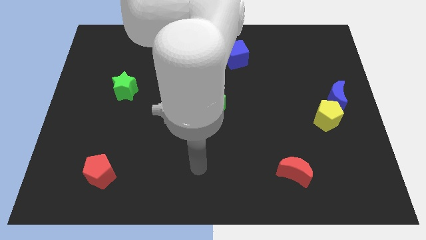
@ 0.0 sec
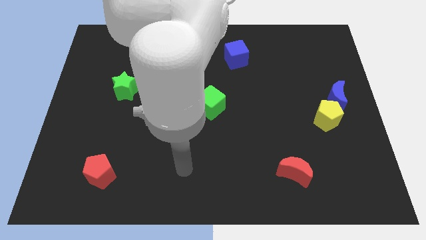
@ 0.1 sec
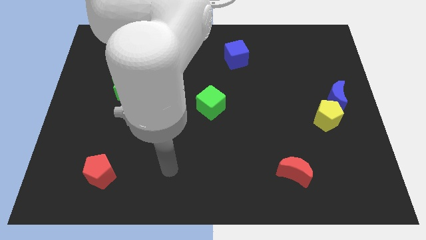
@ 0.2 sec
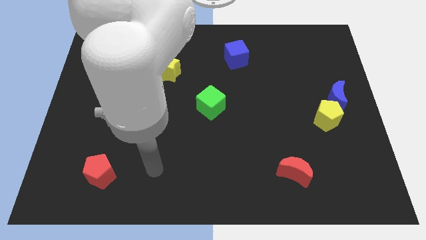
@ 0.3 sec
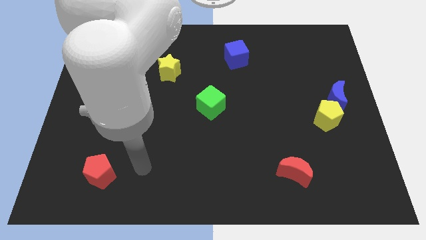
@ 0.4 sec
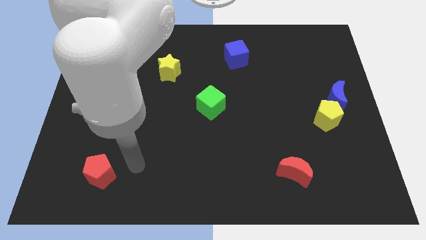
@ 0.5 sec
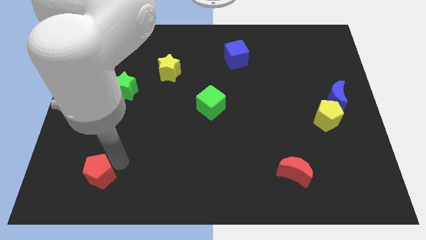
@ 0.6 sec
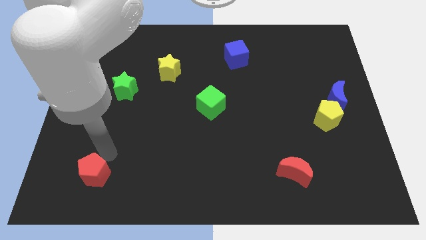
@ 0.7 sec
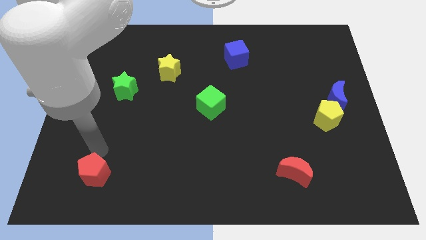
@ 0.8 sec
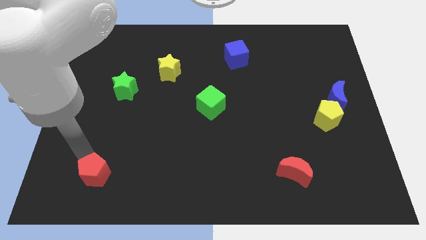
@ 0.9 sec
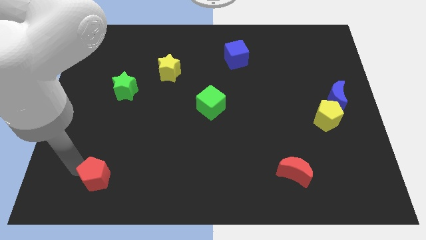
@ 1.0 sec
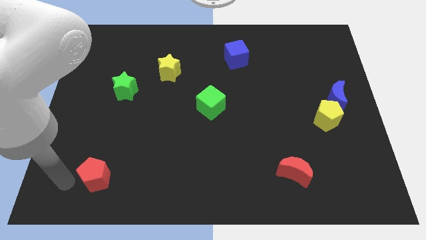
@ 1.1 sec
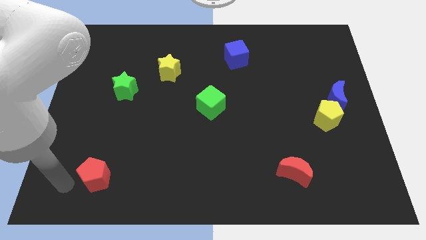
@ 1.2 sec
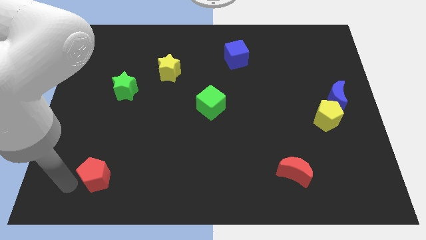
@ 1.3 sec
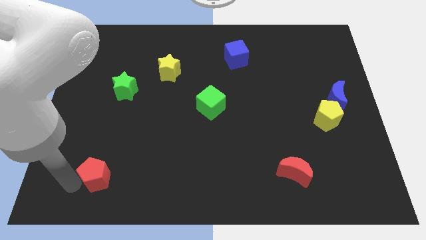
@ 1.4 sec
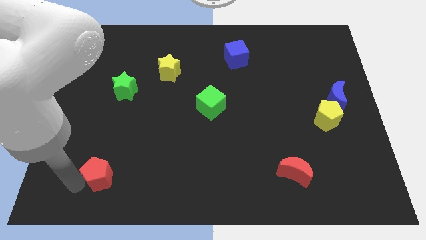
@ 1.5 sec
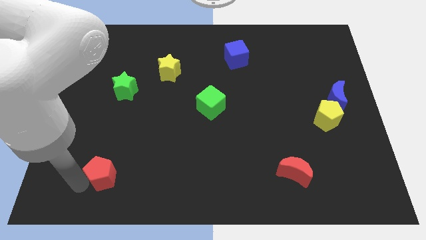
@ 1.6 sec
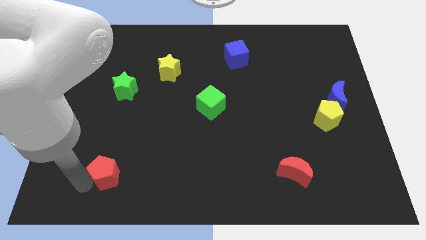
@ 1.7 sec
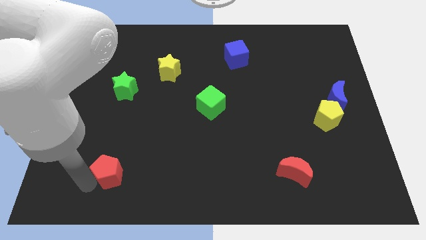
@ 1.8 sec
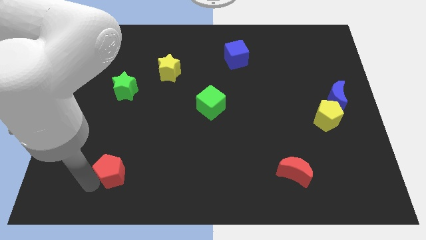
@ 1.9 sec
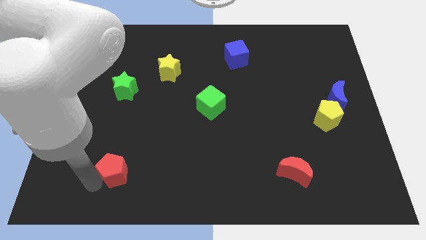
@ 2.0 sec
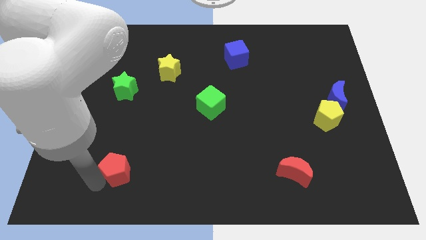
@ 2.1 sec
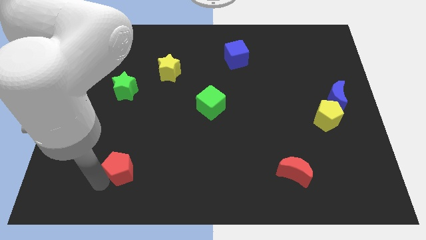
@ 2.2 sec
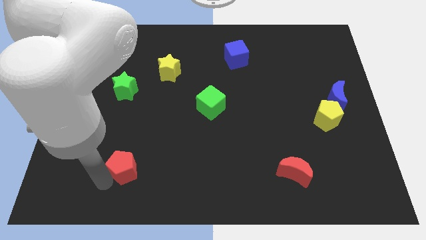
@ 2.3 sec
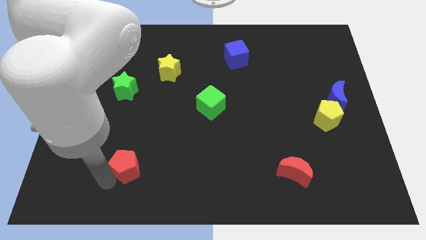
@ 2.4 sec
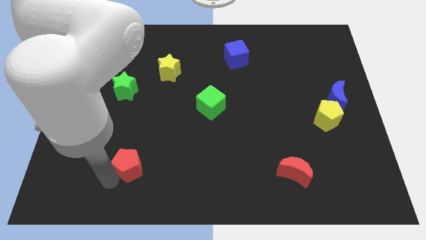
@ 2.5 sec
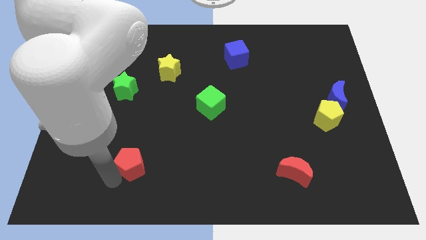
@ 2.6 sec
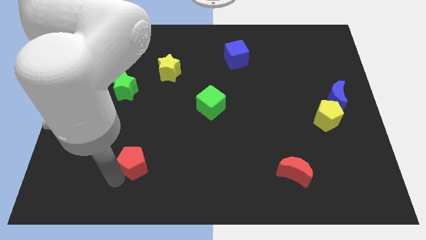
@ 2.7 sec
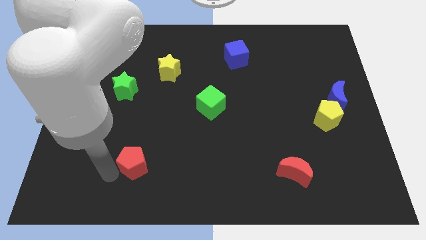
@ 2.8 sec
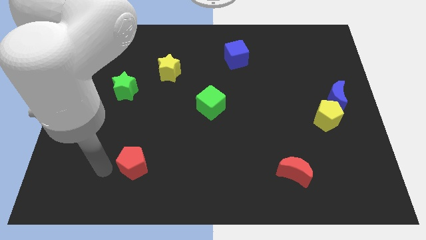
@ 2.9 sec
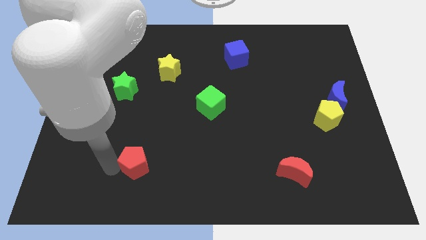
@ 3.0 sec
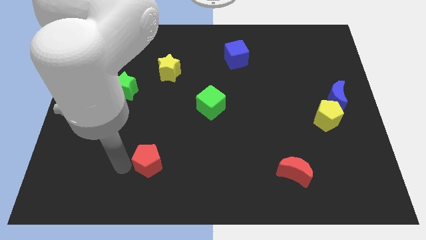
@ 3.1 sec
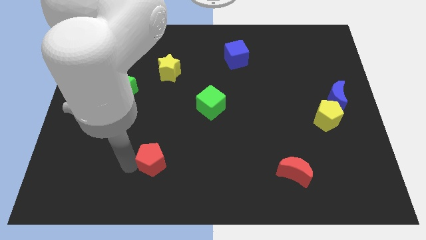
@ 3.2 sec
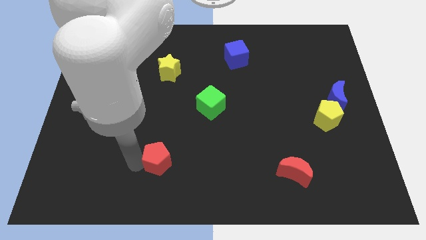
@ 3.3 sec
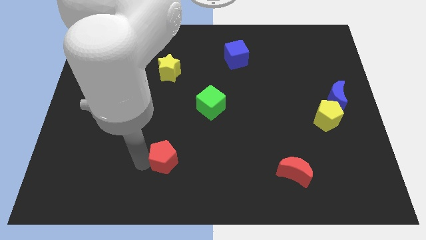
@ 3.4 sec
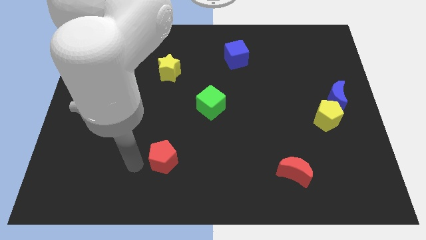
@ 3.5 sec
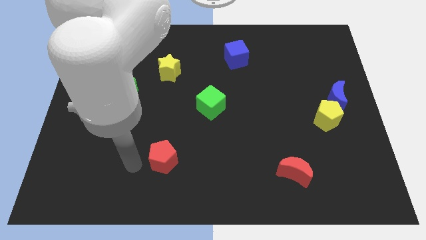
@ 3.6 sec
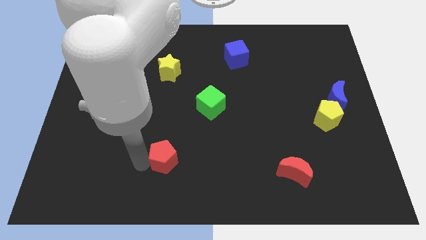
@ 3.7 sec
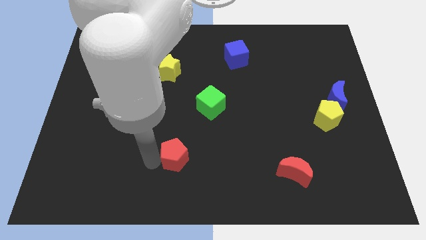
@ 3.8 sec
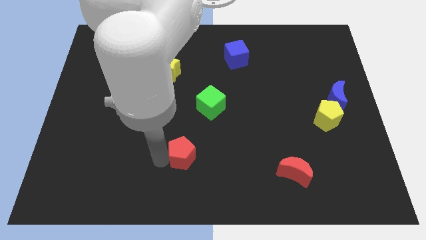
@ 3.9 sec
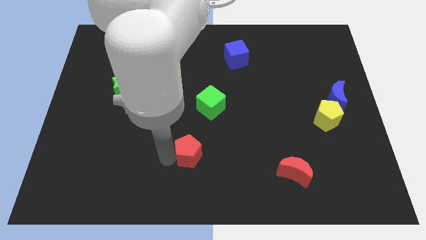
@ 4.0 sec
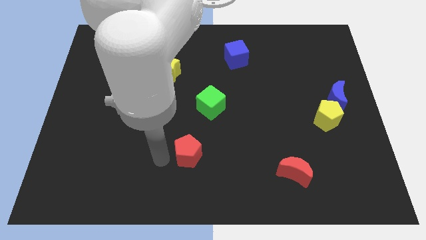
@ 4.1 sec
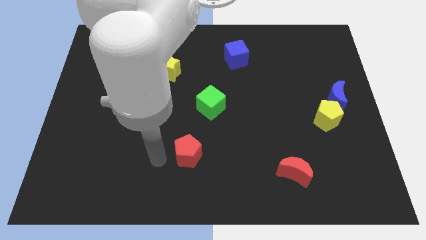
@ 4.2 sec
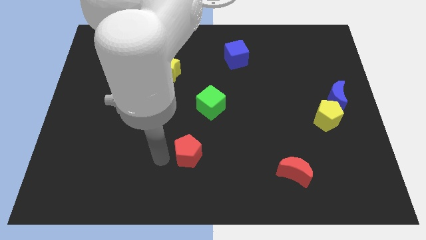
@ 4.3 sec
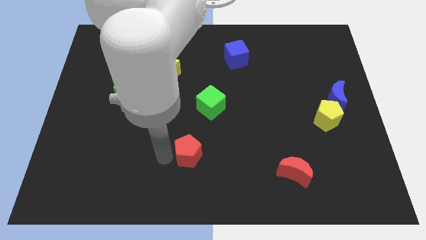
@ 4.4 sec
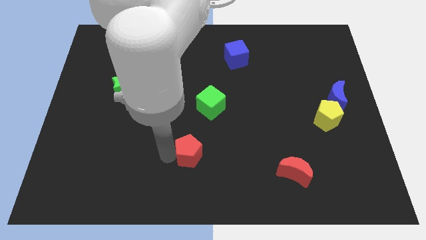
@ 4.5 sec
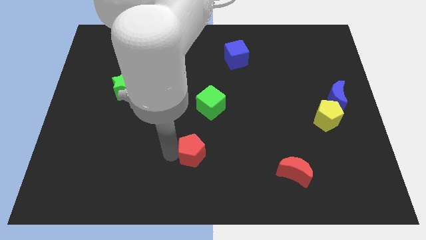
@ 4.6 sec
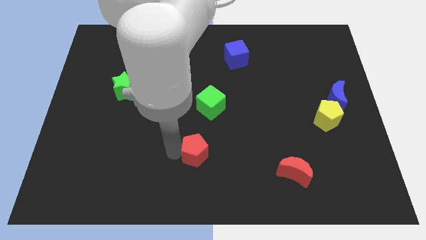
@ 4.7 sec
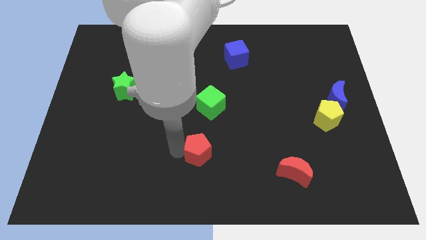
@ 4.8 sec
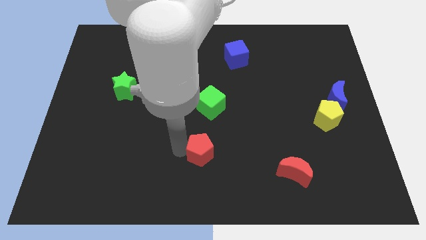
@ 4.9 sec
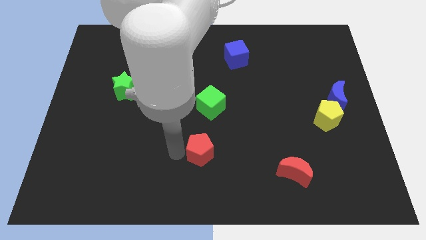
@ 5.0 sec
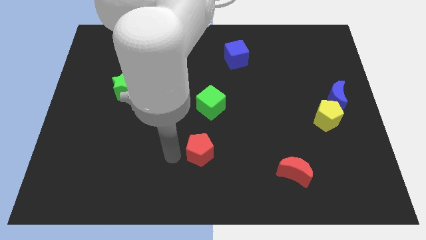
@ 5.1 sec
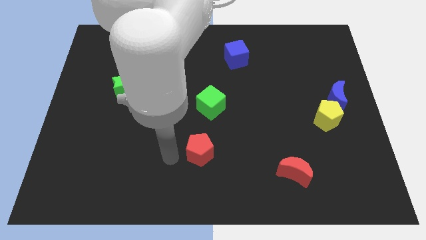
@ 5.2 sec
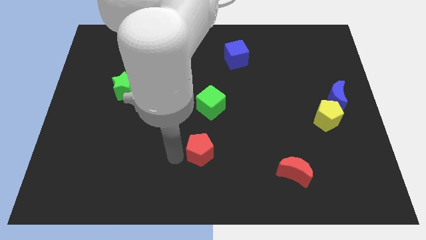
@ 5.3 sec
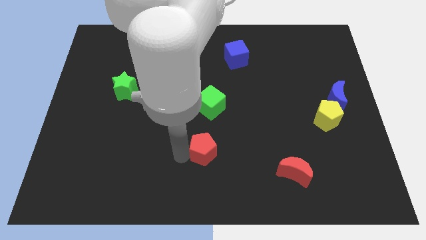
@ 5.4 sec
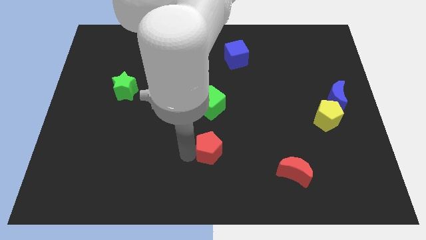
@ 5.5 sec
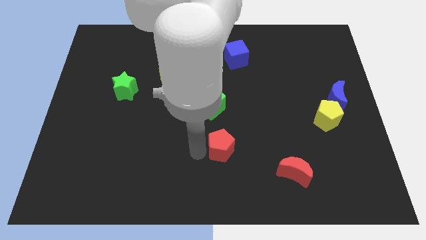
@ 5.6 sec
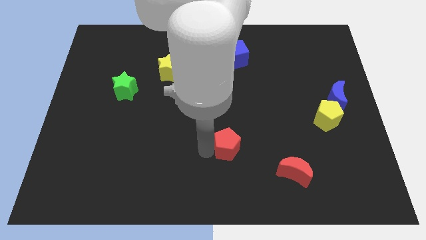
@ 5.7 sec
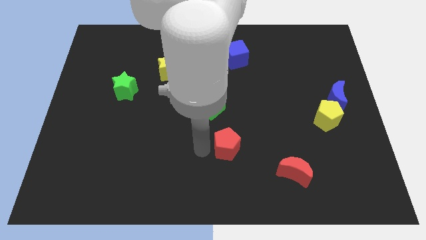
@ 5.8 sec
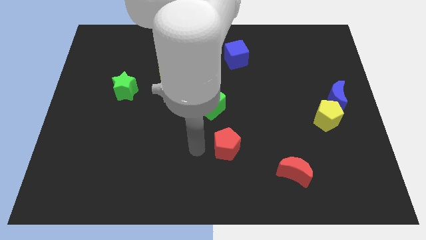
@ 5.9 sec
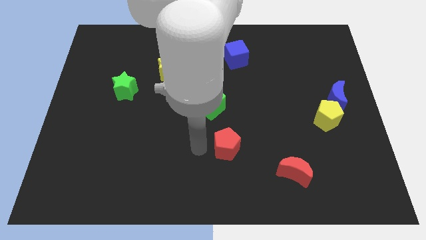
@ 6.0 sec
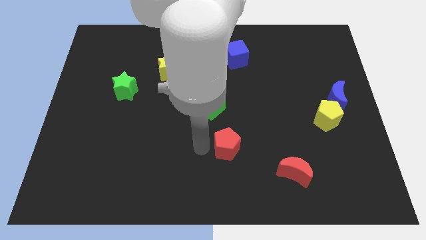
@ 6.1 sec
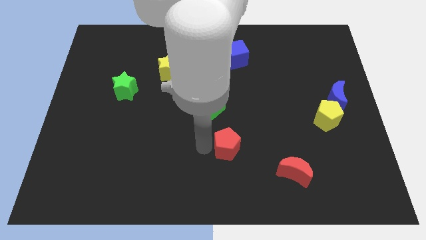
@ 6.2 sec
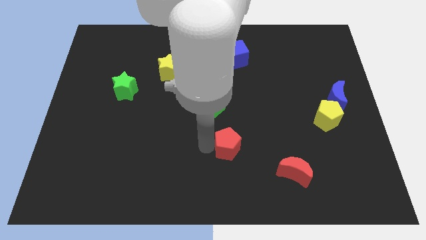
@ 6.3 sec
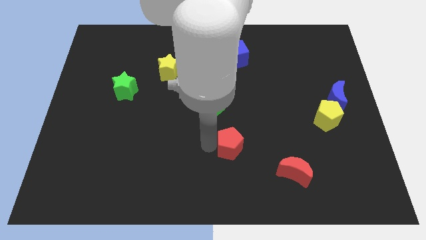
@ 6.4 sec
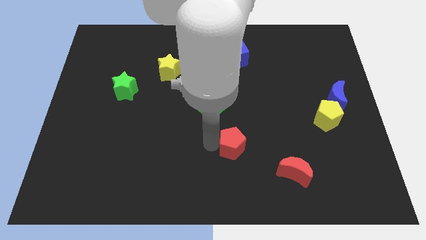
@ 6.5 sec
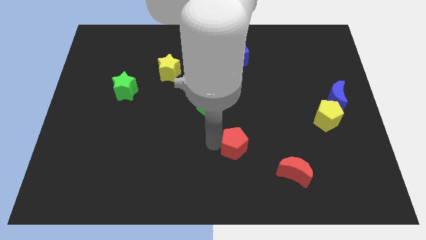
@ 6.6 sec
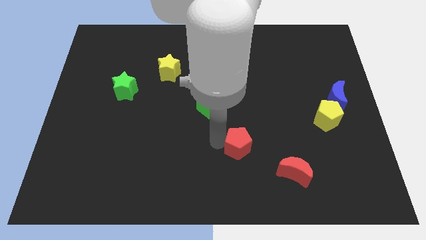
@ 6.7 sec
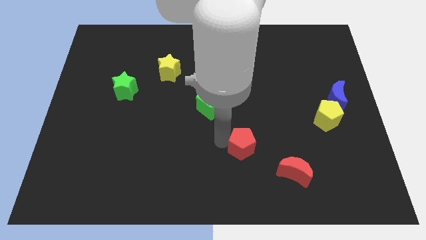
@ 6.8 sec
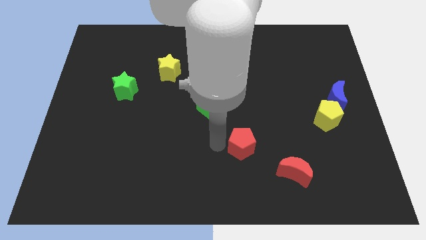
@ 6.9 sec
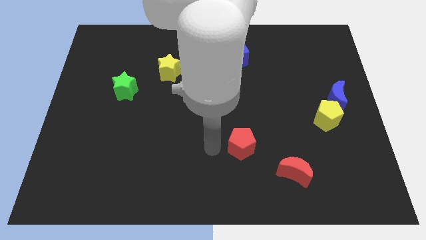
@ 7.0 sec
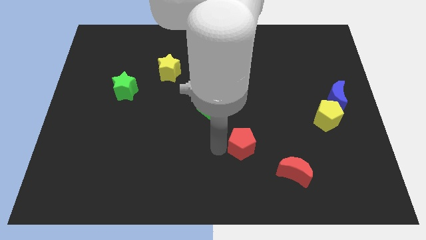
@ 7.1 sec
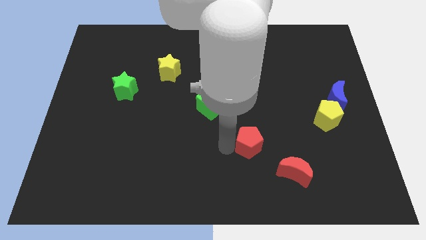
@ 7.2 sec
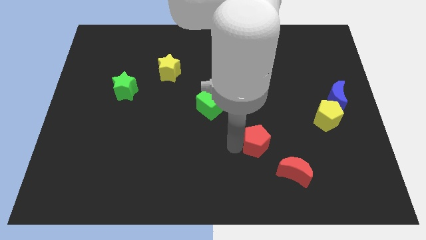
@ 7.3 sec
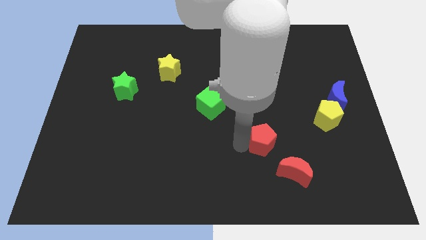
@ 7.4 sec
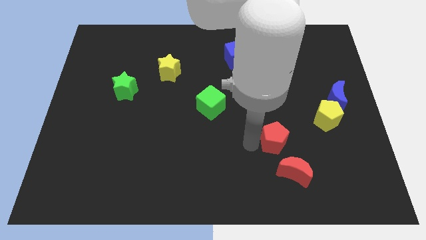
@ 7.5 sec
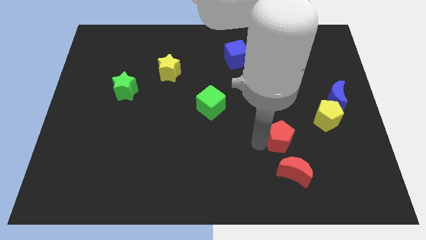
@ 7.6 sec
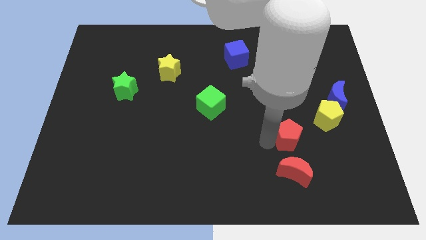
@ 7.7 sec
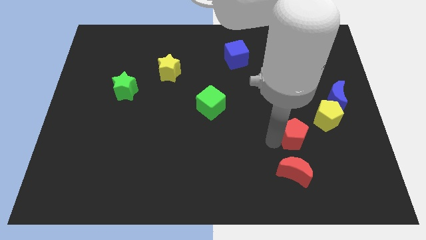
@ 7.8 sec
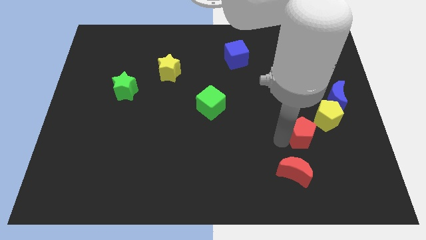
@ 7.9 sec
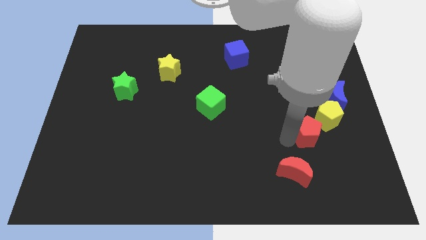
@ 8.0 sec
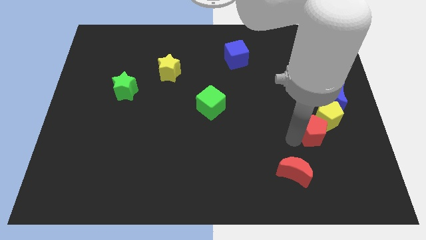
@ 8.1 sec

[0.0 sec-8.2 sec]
push the red pentagon next to the yellow pentagon
